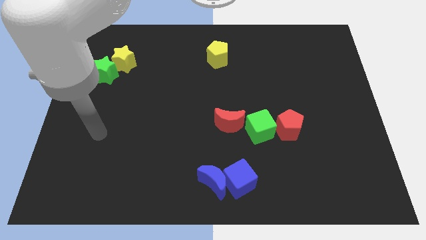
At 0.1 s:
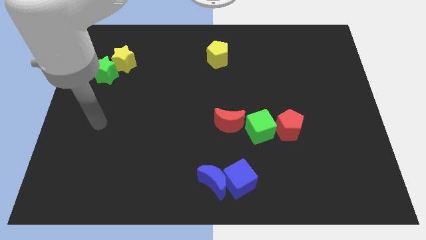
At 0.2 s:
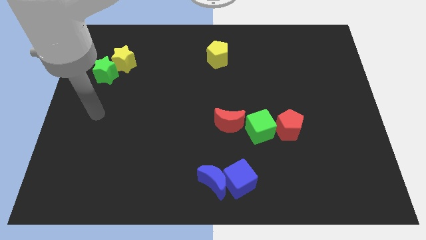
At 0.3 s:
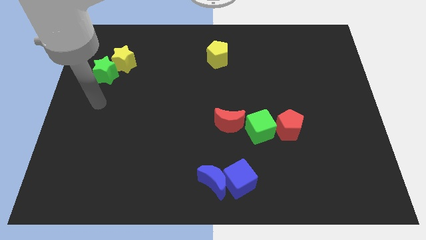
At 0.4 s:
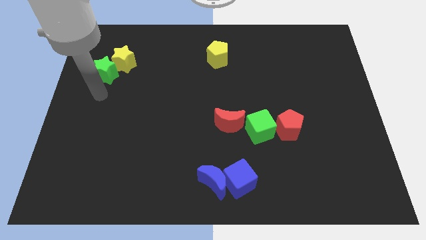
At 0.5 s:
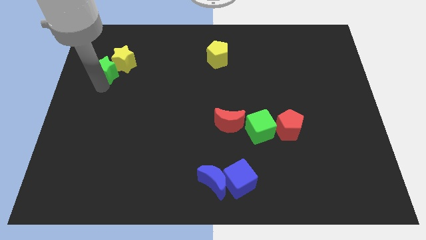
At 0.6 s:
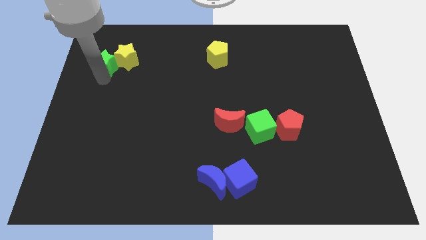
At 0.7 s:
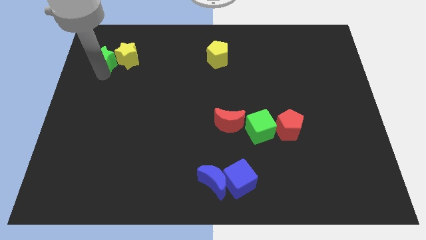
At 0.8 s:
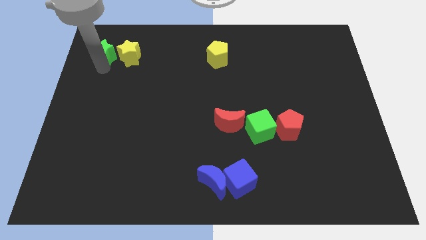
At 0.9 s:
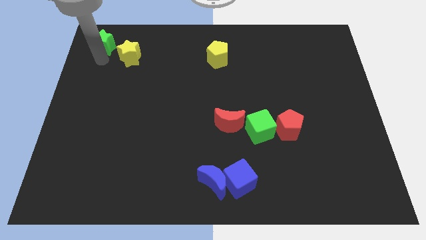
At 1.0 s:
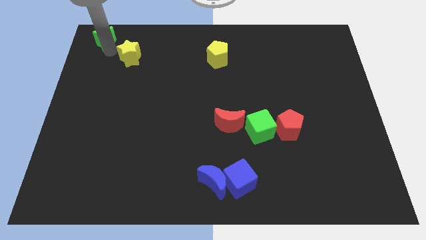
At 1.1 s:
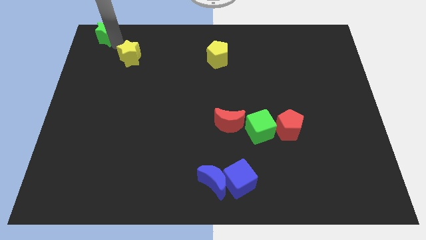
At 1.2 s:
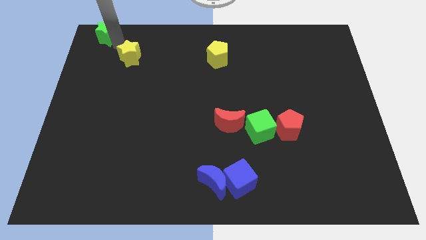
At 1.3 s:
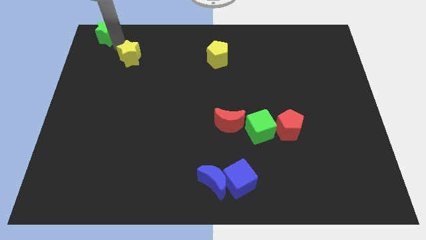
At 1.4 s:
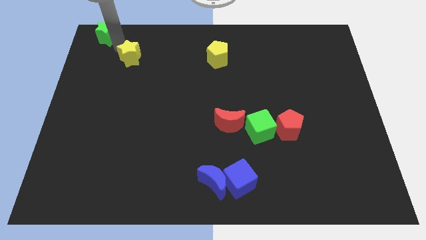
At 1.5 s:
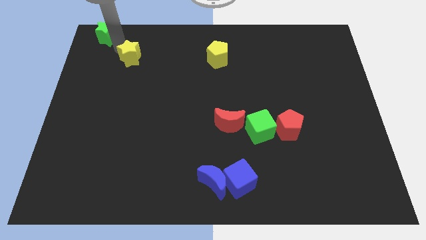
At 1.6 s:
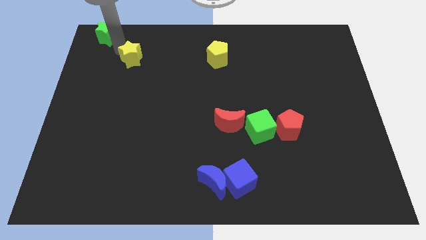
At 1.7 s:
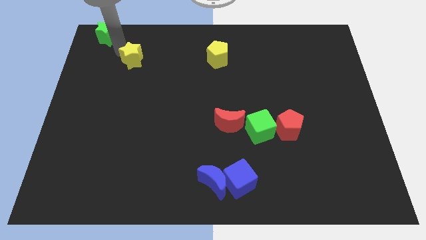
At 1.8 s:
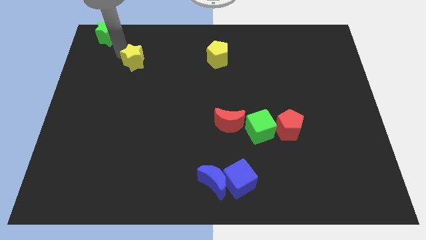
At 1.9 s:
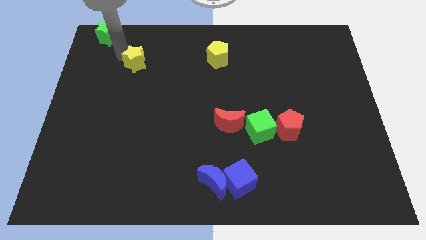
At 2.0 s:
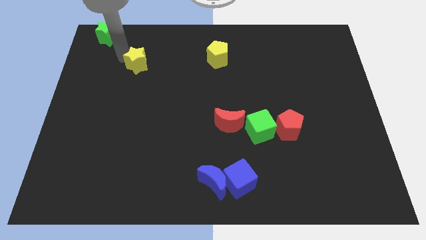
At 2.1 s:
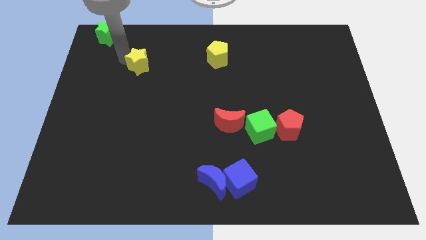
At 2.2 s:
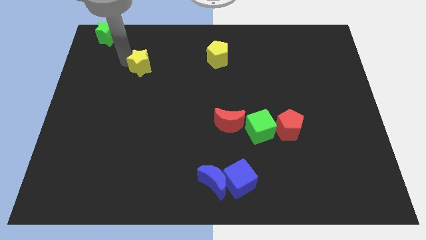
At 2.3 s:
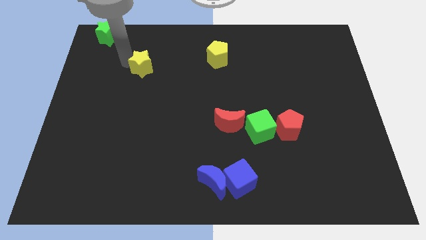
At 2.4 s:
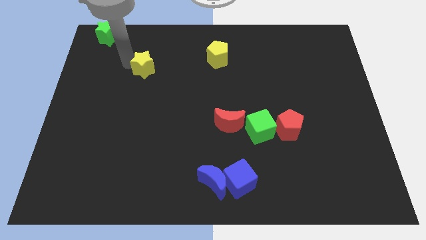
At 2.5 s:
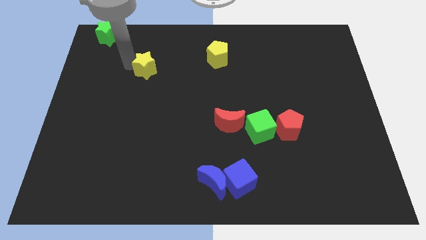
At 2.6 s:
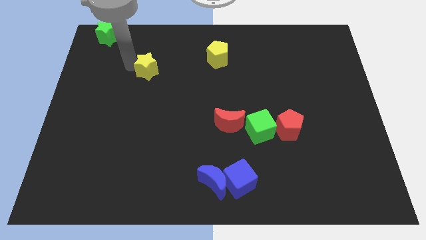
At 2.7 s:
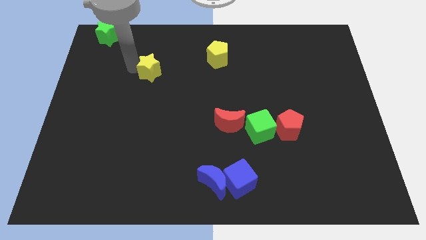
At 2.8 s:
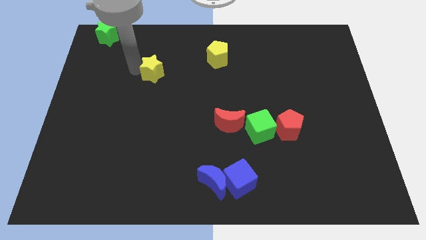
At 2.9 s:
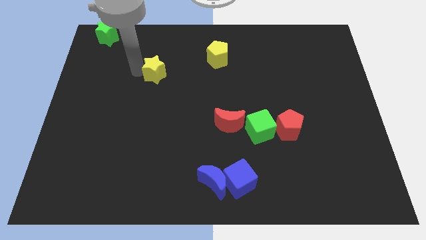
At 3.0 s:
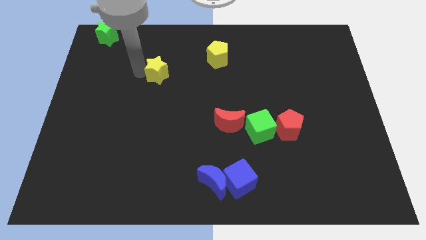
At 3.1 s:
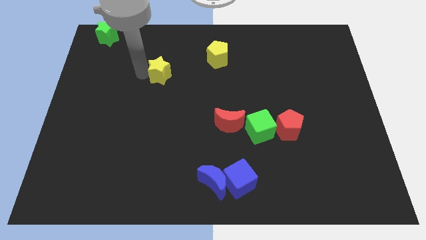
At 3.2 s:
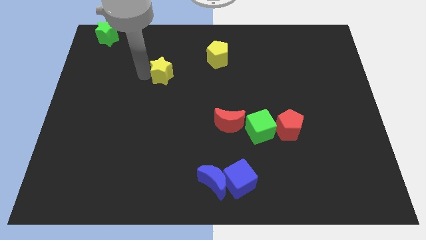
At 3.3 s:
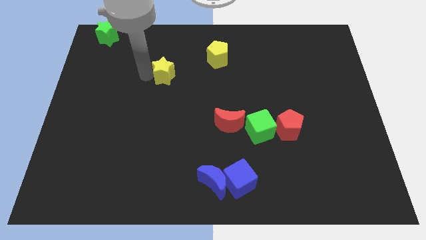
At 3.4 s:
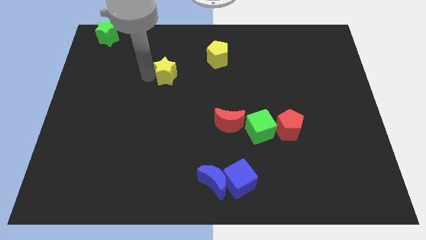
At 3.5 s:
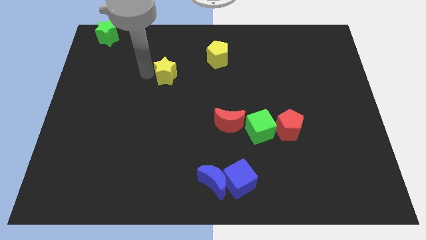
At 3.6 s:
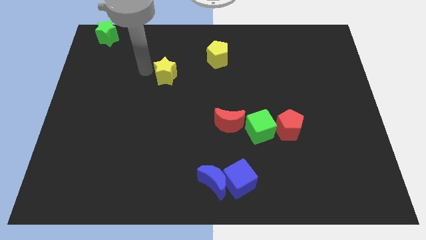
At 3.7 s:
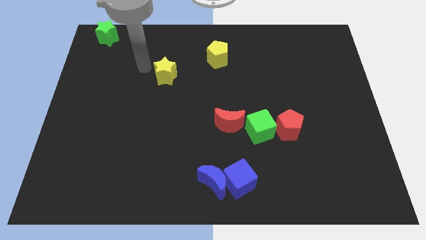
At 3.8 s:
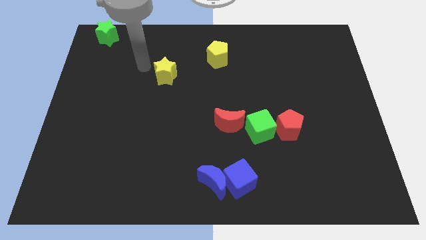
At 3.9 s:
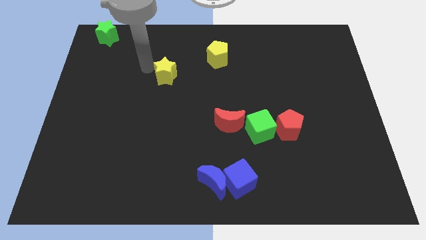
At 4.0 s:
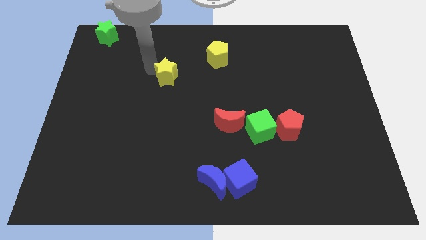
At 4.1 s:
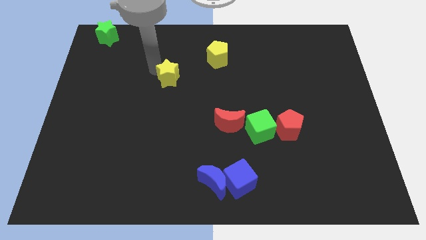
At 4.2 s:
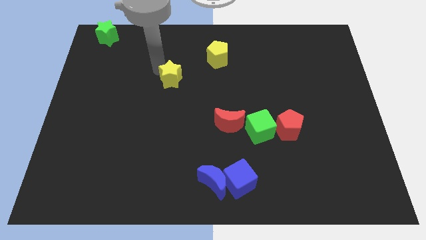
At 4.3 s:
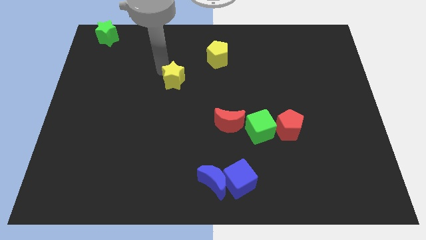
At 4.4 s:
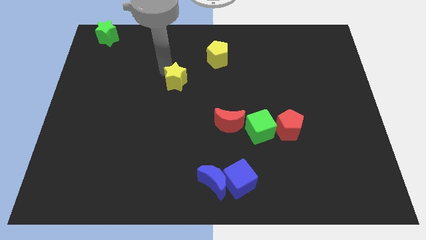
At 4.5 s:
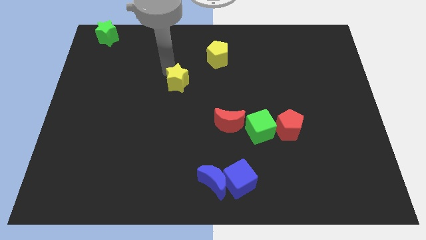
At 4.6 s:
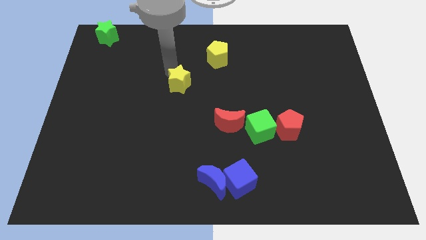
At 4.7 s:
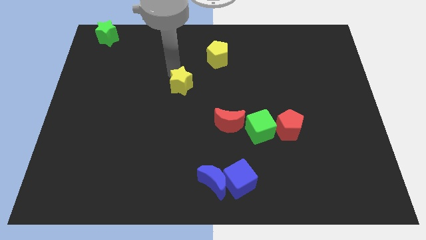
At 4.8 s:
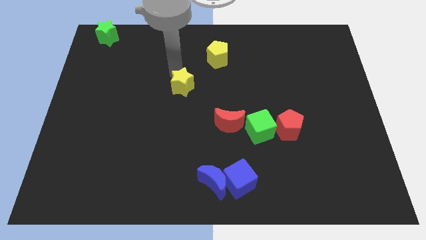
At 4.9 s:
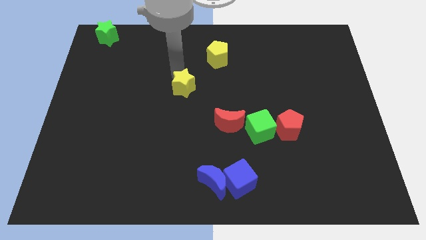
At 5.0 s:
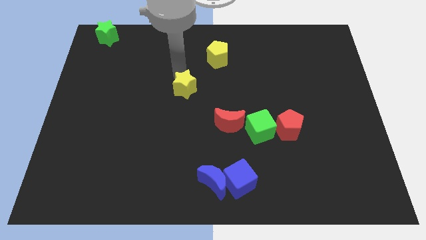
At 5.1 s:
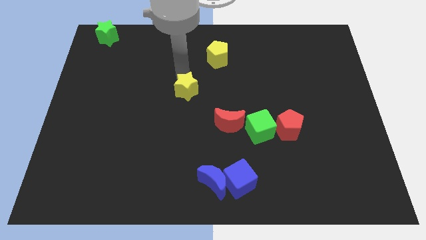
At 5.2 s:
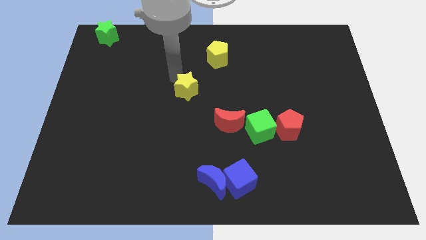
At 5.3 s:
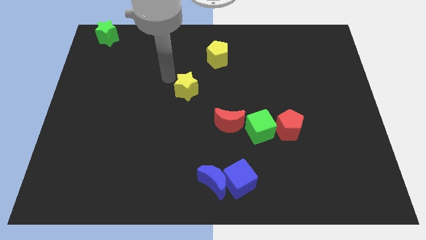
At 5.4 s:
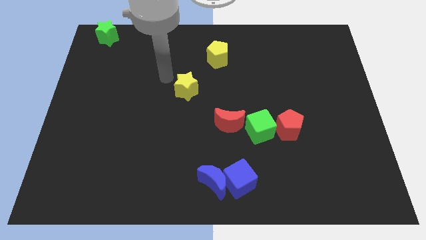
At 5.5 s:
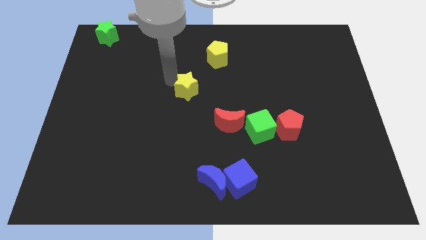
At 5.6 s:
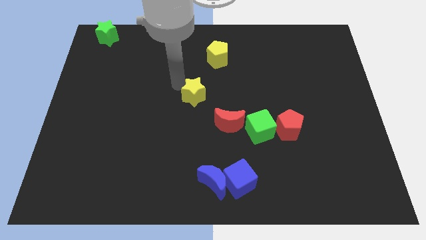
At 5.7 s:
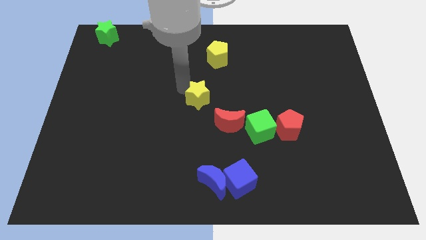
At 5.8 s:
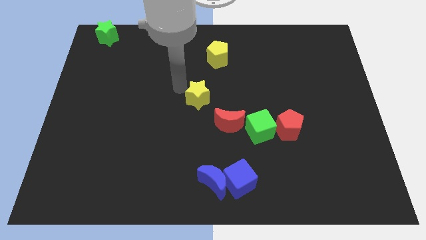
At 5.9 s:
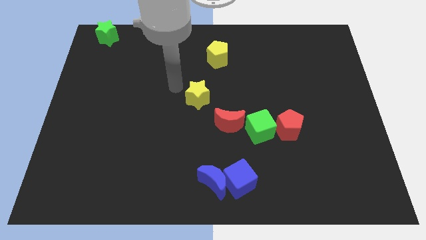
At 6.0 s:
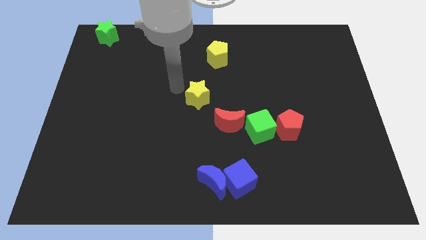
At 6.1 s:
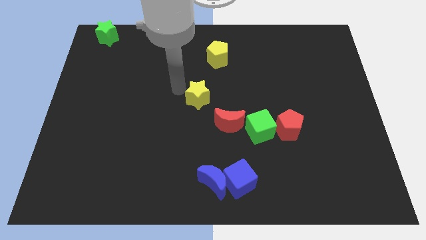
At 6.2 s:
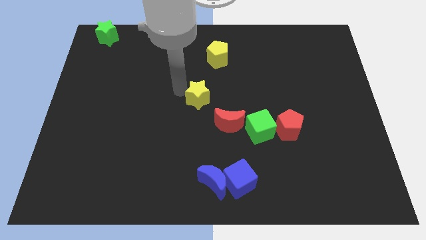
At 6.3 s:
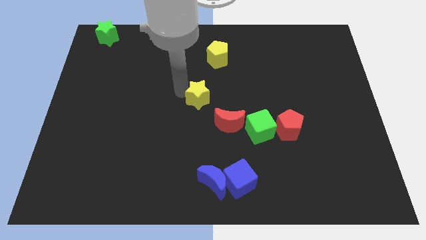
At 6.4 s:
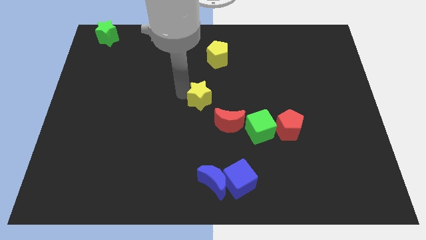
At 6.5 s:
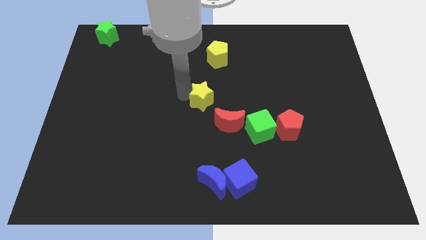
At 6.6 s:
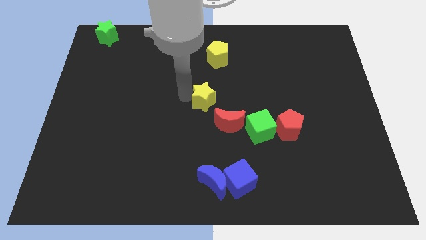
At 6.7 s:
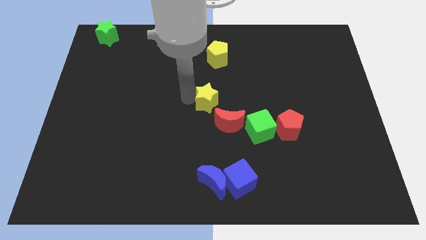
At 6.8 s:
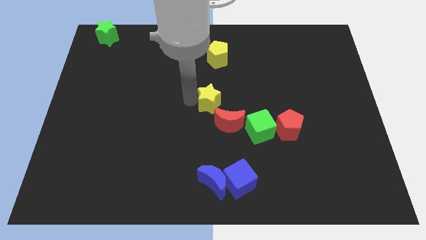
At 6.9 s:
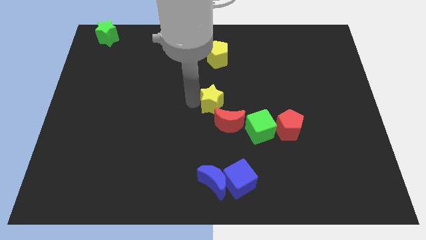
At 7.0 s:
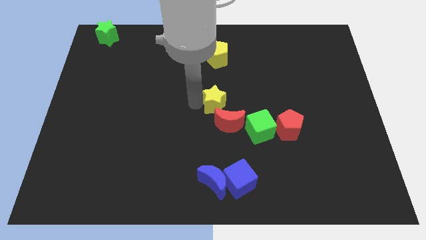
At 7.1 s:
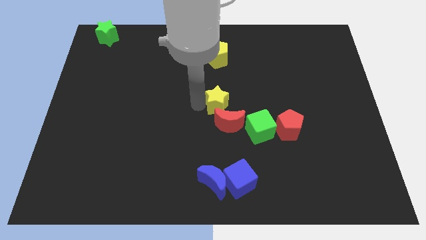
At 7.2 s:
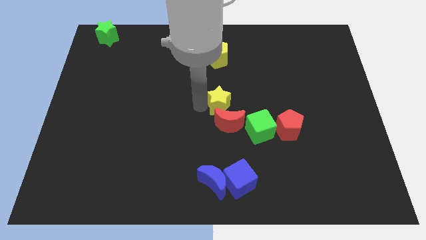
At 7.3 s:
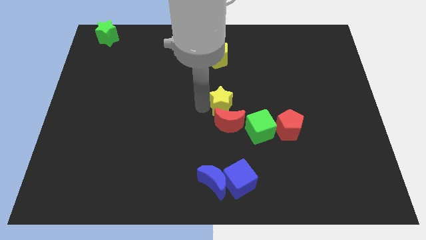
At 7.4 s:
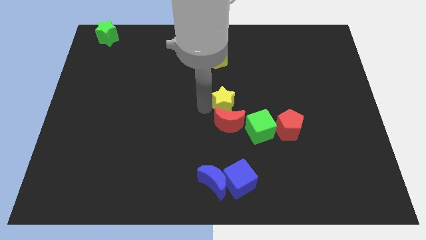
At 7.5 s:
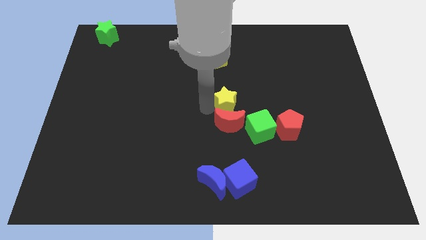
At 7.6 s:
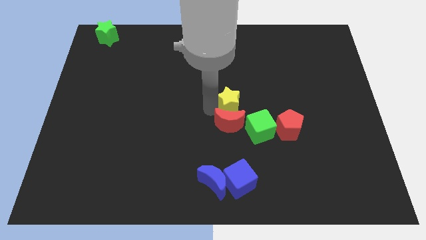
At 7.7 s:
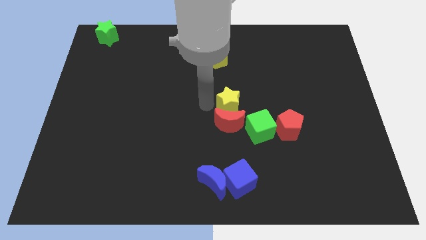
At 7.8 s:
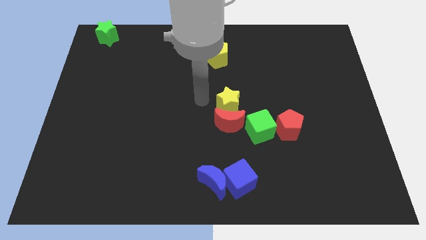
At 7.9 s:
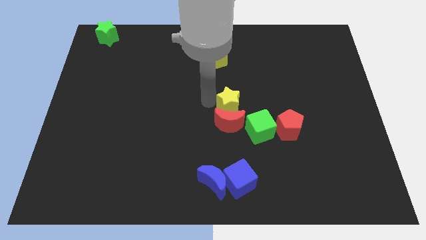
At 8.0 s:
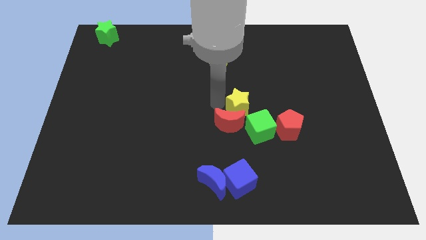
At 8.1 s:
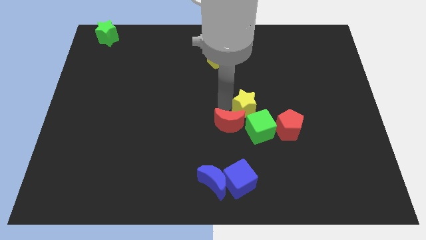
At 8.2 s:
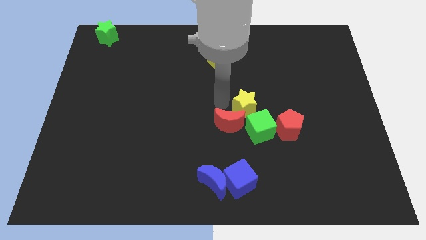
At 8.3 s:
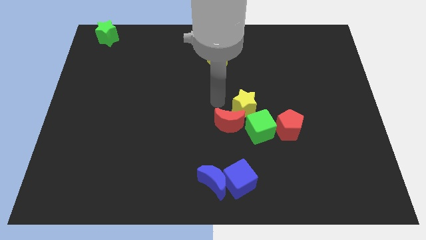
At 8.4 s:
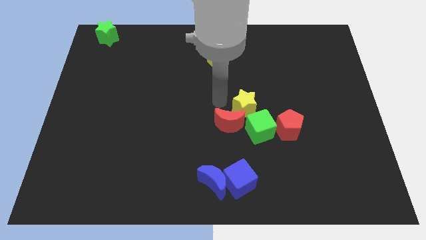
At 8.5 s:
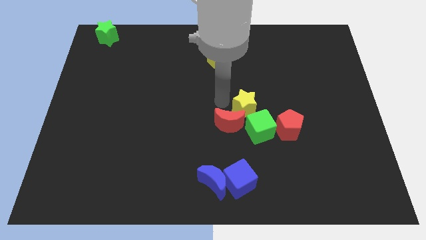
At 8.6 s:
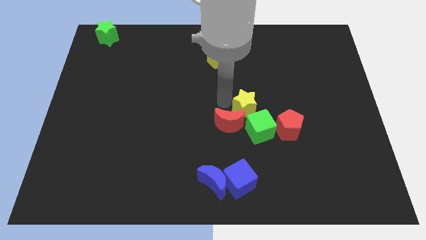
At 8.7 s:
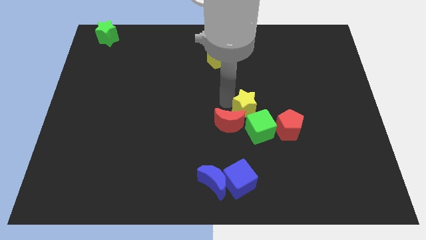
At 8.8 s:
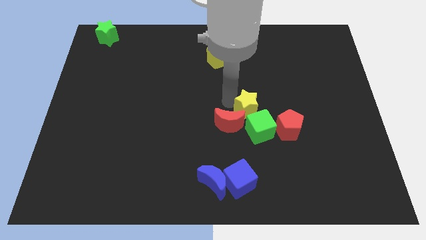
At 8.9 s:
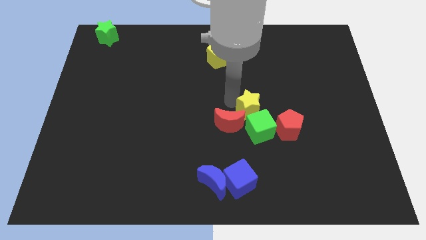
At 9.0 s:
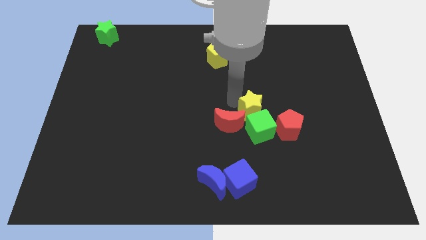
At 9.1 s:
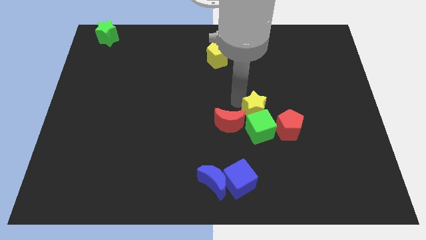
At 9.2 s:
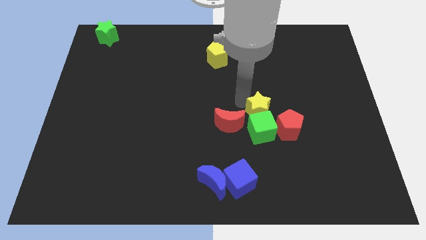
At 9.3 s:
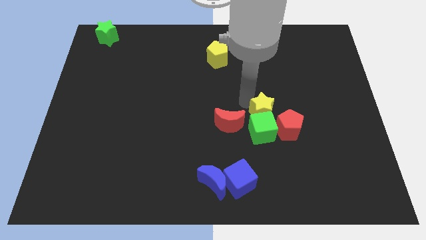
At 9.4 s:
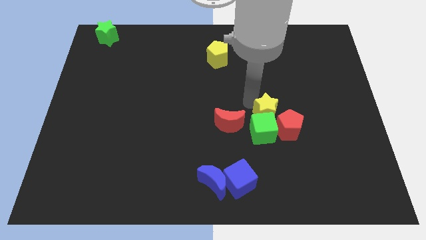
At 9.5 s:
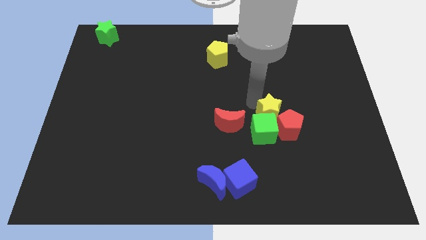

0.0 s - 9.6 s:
move the yellow star next to the red pentagon
